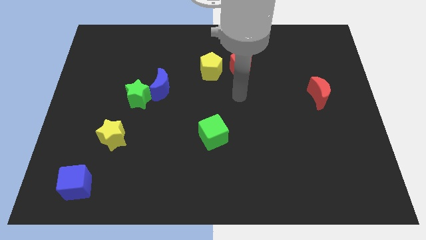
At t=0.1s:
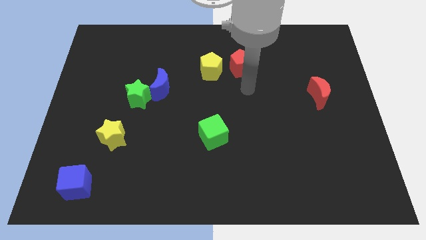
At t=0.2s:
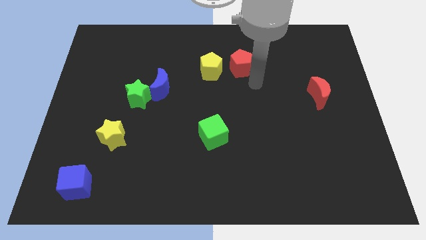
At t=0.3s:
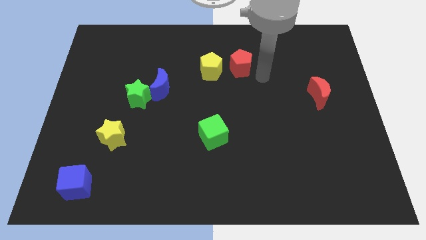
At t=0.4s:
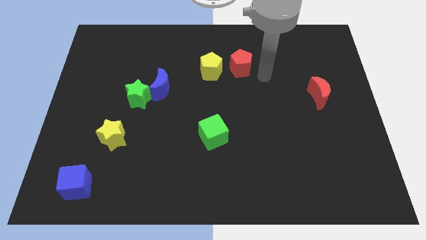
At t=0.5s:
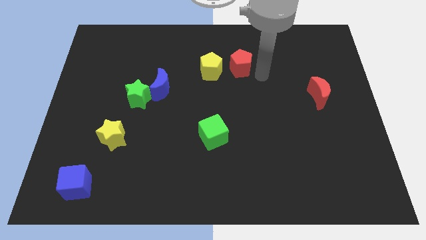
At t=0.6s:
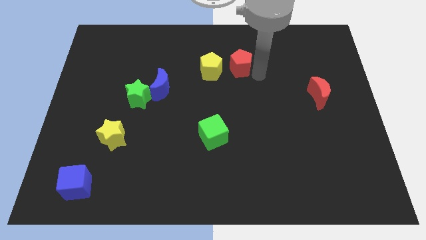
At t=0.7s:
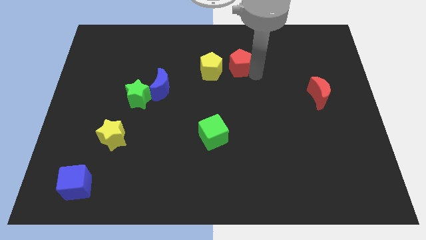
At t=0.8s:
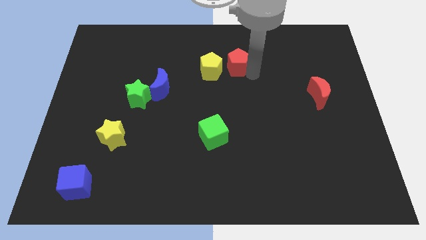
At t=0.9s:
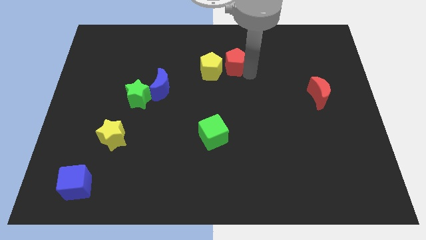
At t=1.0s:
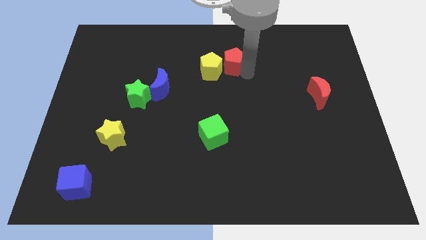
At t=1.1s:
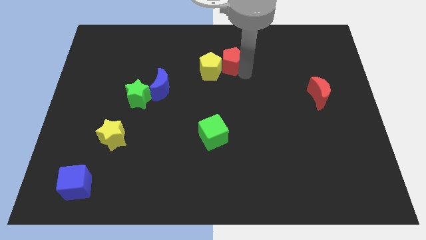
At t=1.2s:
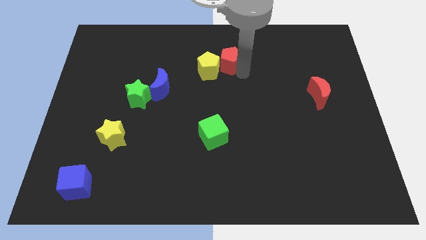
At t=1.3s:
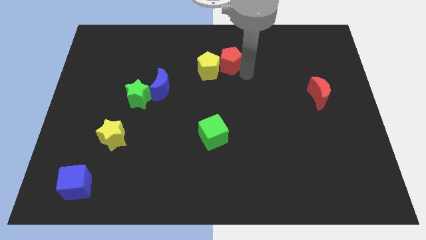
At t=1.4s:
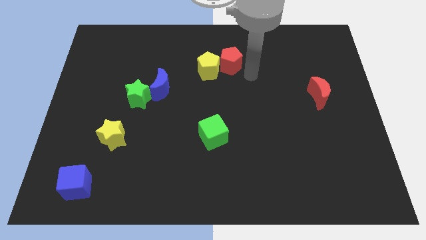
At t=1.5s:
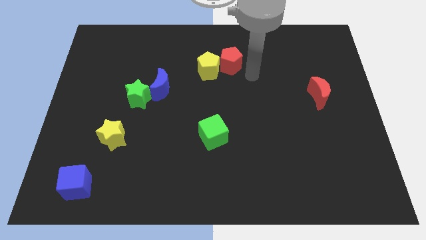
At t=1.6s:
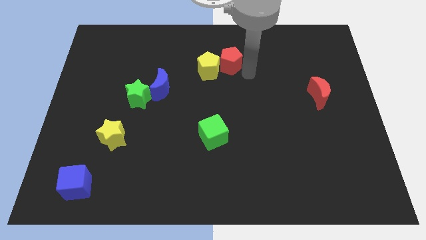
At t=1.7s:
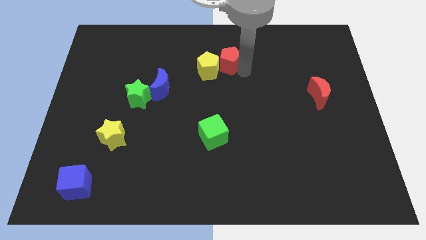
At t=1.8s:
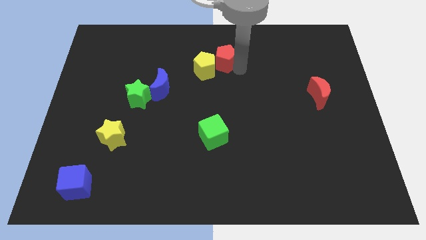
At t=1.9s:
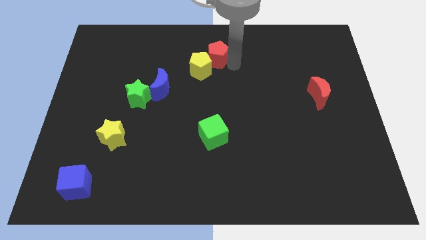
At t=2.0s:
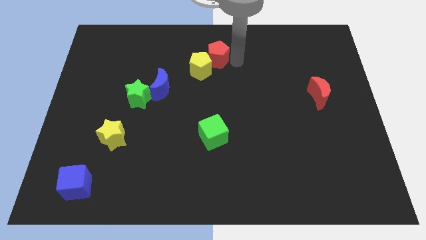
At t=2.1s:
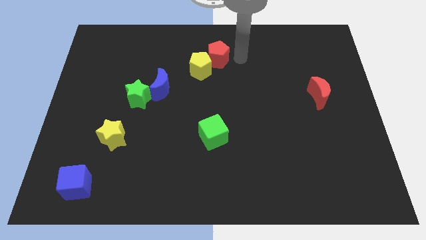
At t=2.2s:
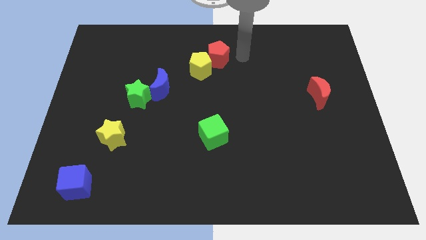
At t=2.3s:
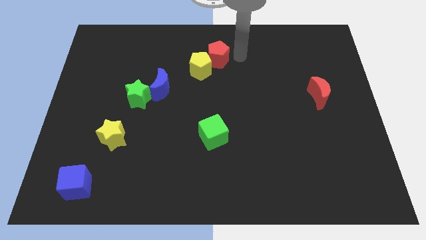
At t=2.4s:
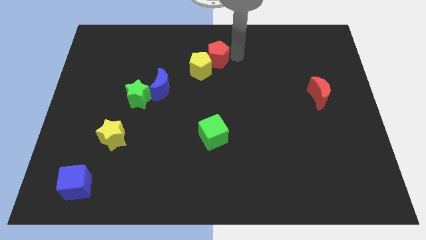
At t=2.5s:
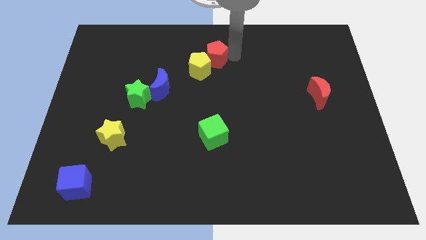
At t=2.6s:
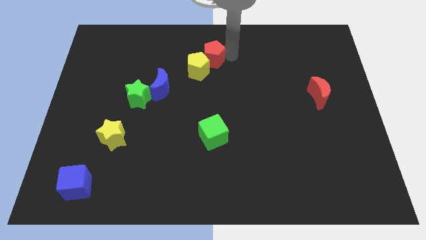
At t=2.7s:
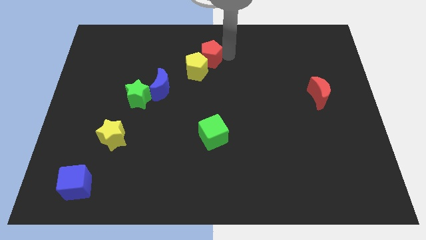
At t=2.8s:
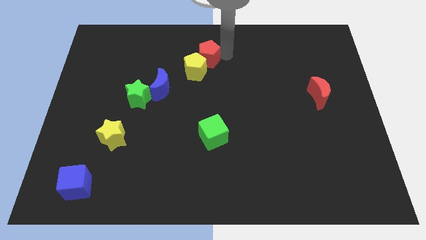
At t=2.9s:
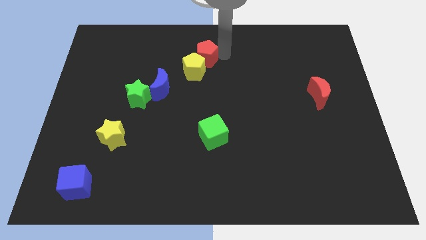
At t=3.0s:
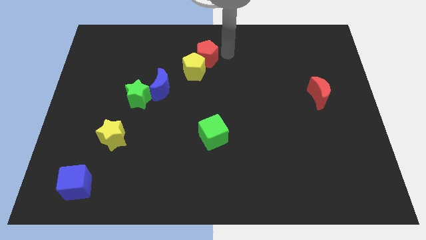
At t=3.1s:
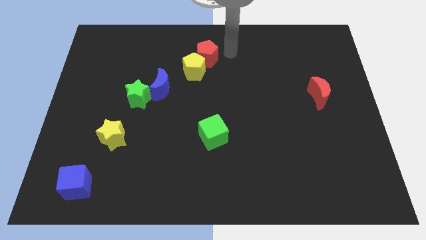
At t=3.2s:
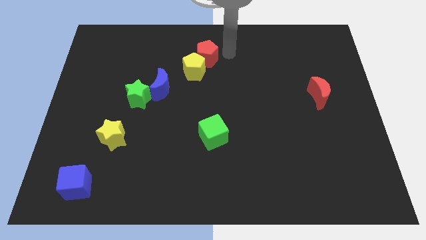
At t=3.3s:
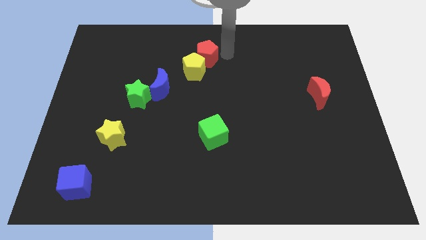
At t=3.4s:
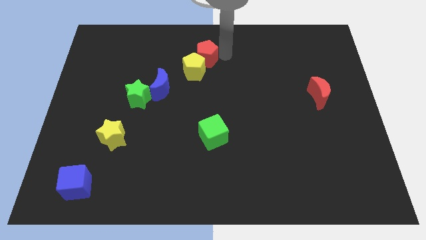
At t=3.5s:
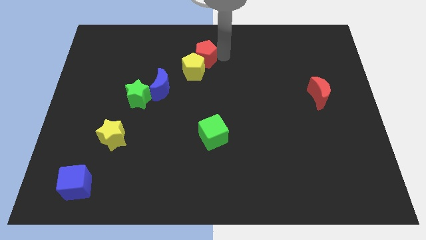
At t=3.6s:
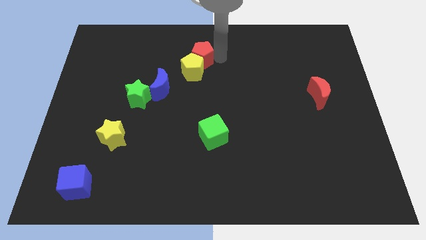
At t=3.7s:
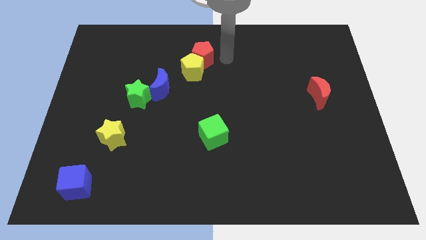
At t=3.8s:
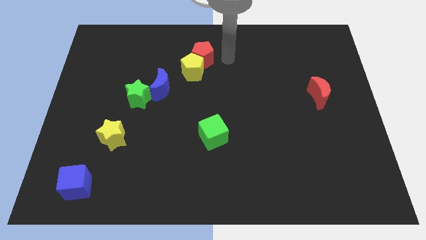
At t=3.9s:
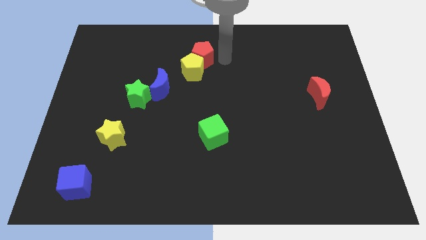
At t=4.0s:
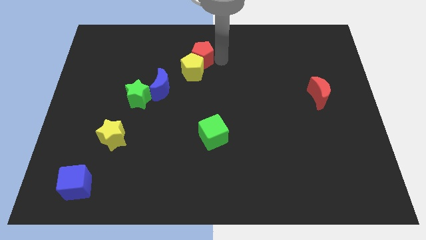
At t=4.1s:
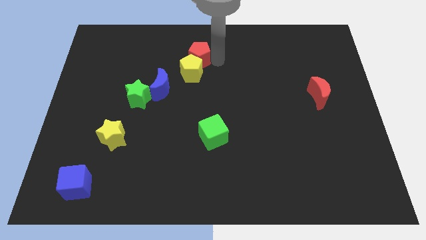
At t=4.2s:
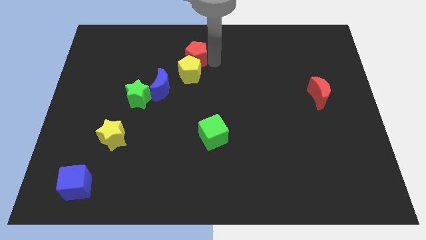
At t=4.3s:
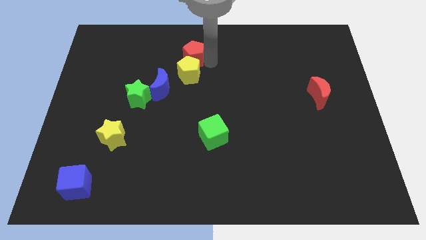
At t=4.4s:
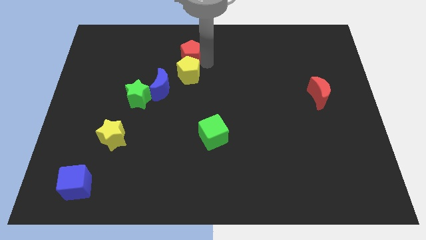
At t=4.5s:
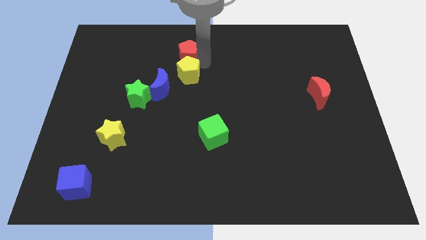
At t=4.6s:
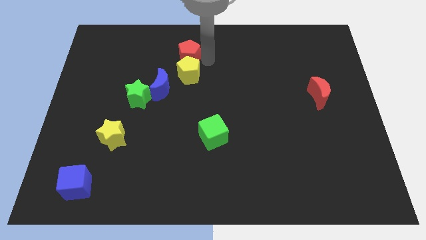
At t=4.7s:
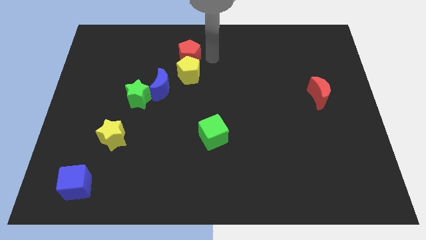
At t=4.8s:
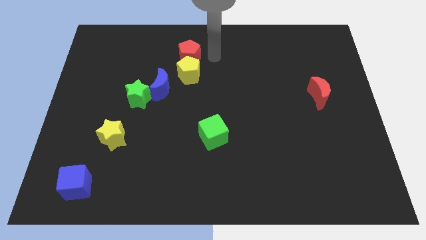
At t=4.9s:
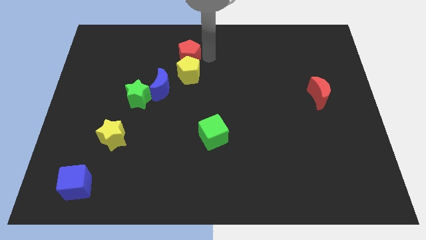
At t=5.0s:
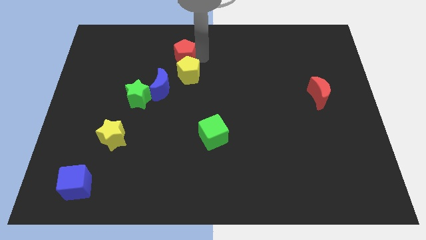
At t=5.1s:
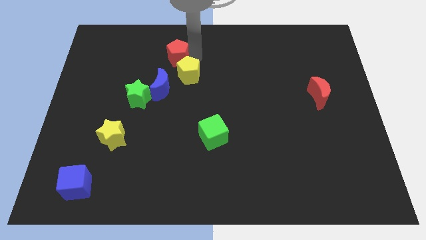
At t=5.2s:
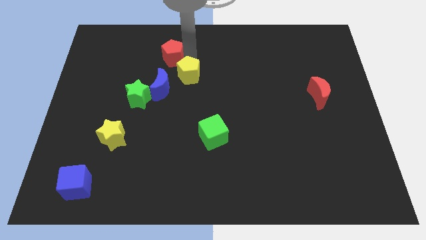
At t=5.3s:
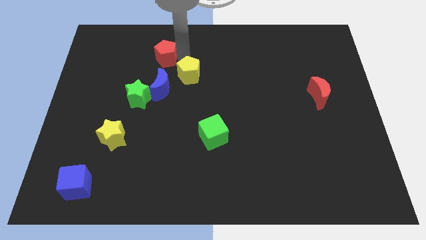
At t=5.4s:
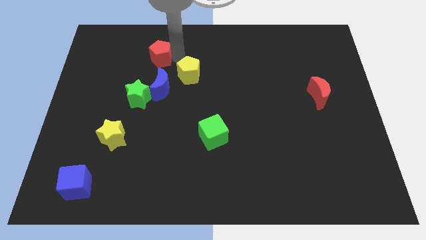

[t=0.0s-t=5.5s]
slide the red pentagon to the left

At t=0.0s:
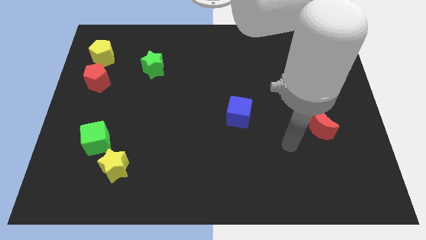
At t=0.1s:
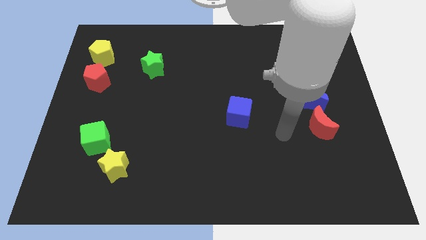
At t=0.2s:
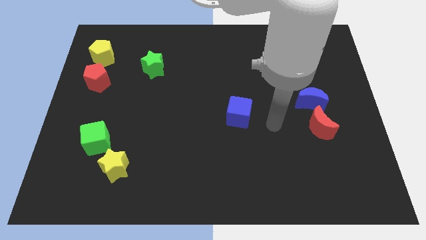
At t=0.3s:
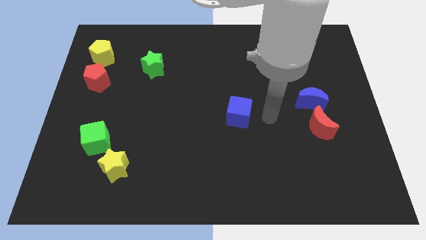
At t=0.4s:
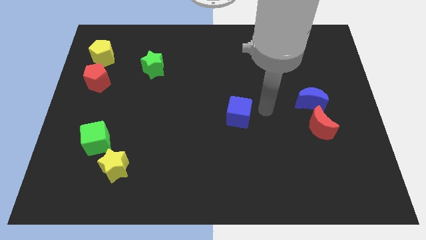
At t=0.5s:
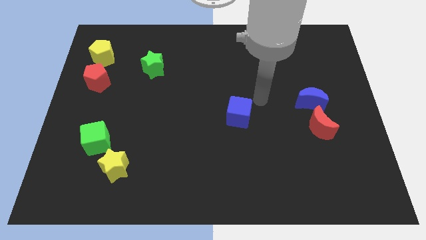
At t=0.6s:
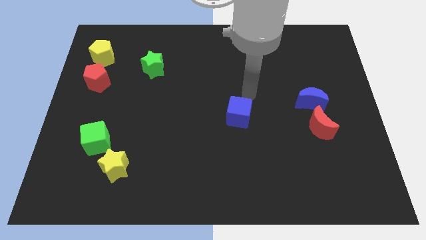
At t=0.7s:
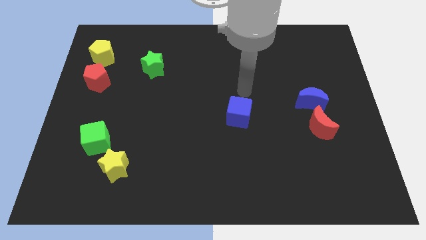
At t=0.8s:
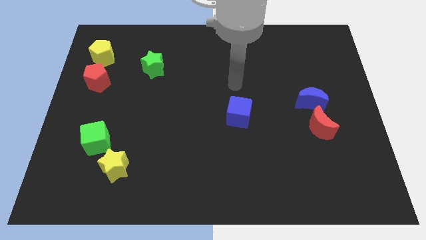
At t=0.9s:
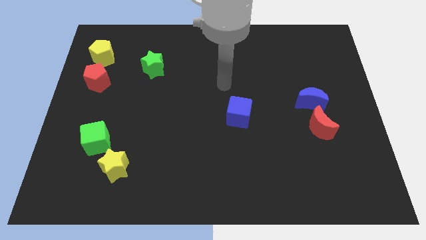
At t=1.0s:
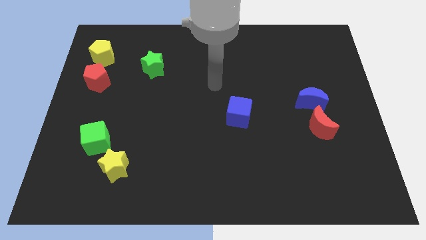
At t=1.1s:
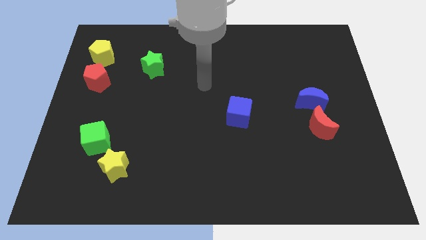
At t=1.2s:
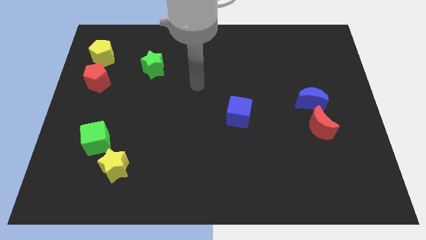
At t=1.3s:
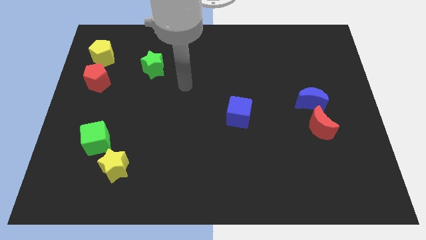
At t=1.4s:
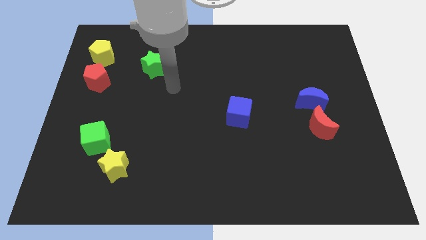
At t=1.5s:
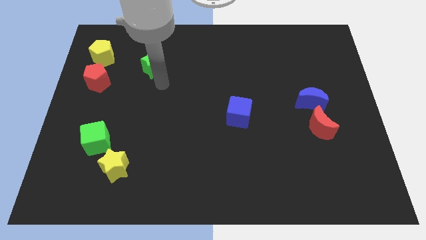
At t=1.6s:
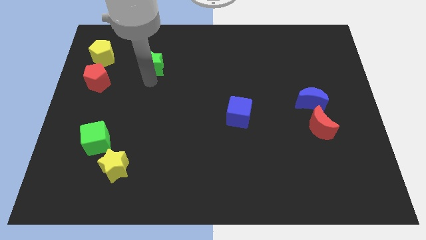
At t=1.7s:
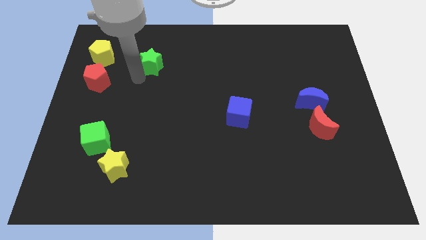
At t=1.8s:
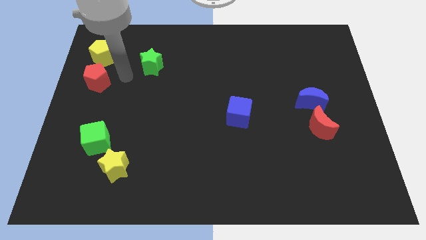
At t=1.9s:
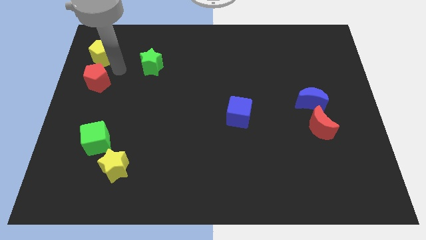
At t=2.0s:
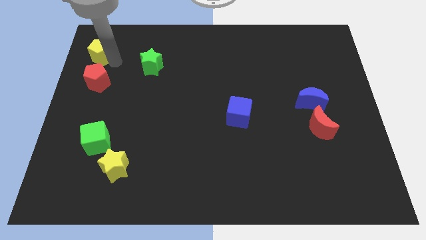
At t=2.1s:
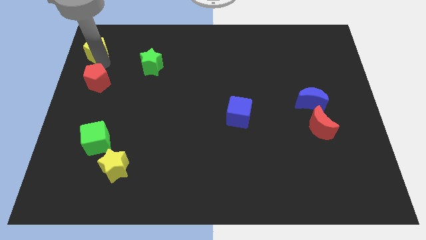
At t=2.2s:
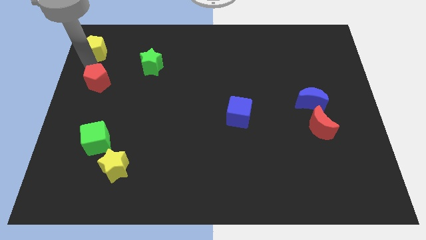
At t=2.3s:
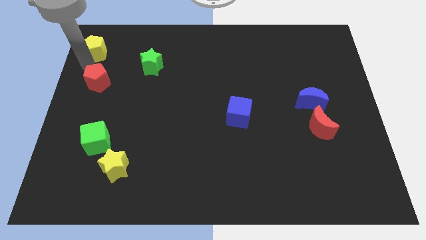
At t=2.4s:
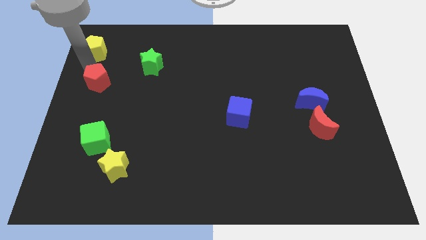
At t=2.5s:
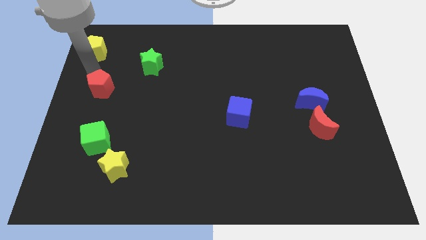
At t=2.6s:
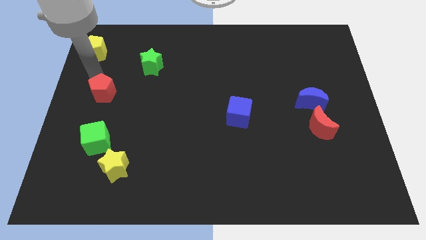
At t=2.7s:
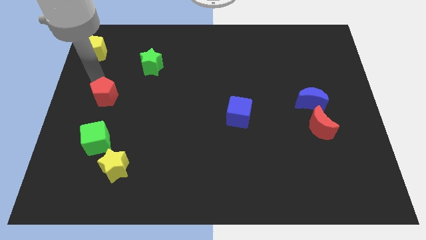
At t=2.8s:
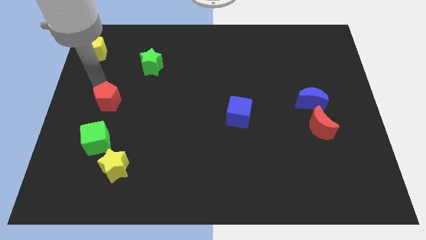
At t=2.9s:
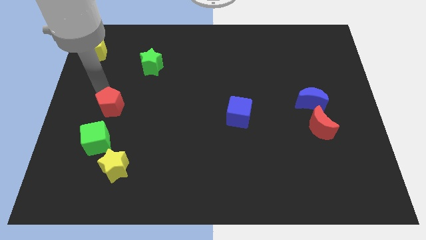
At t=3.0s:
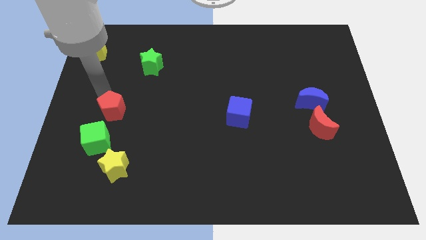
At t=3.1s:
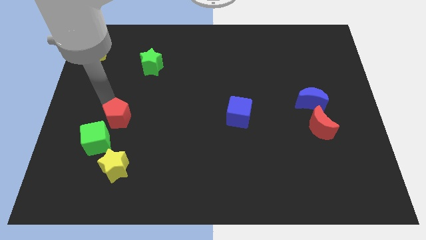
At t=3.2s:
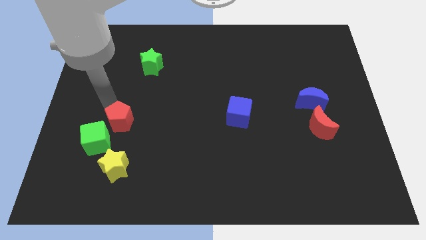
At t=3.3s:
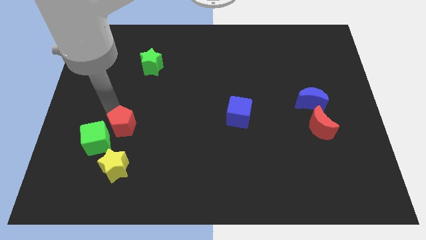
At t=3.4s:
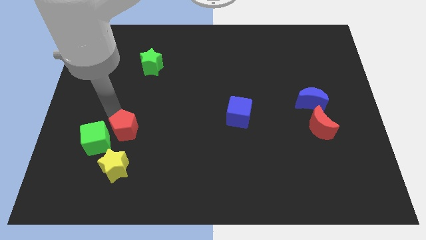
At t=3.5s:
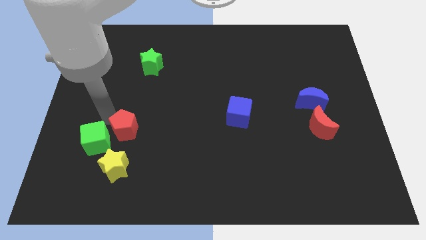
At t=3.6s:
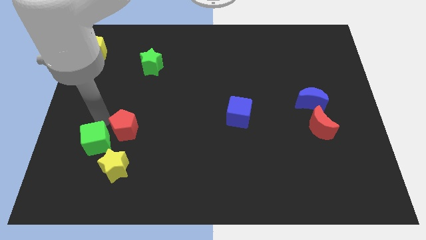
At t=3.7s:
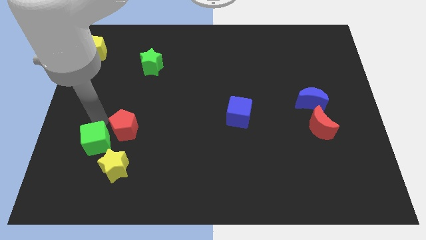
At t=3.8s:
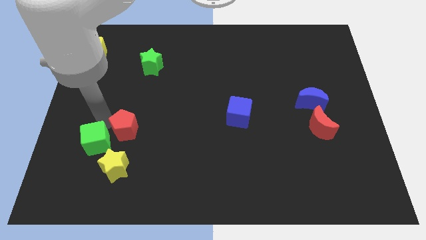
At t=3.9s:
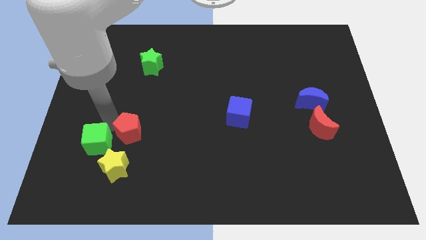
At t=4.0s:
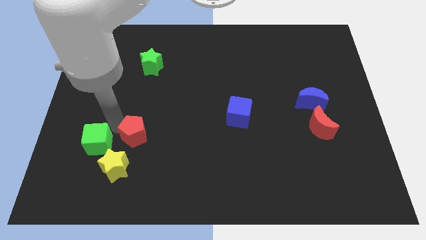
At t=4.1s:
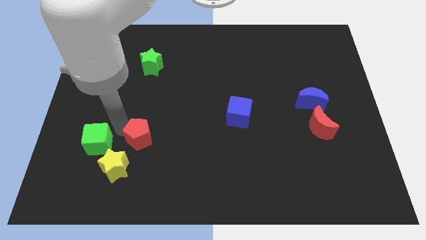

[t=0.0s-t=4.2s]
push the red pentagon downwards and then right
